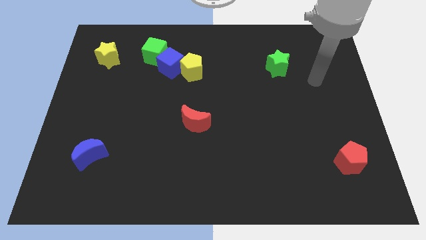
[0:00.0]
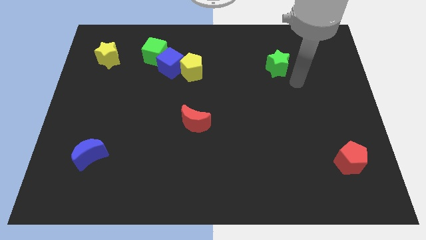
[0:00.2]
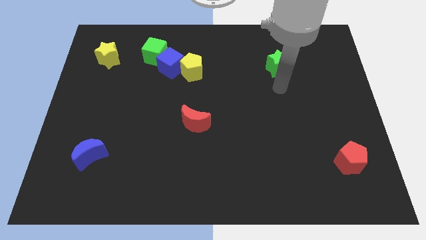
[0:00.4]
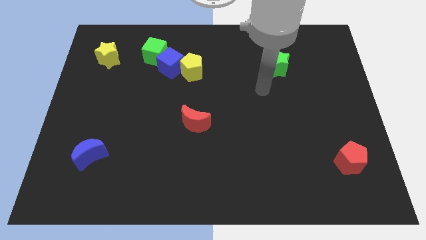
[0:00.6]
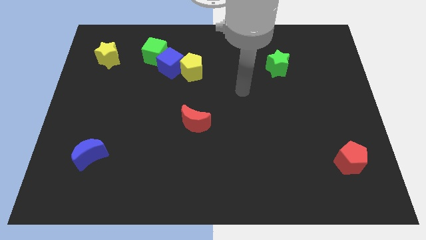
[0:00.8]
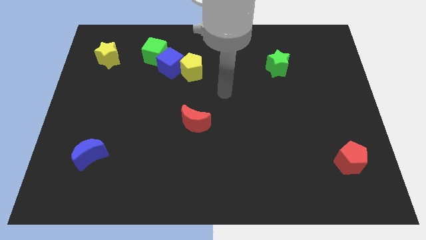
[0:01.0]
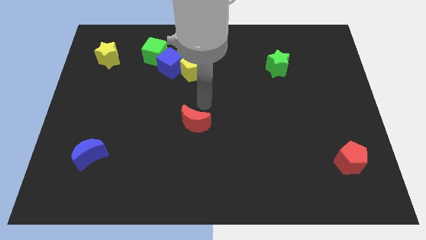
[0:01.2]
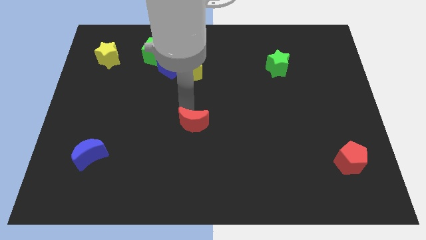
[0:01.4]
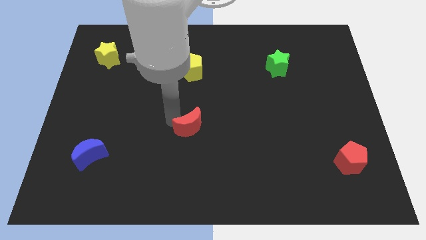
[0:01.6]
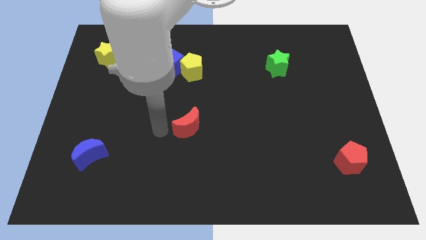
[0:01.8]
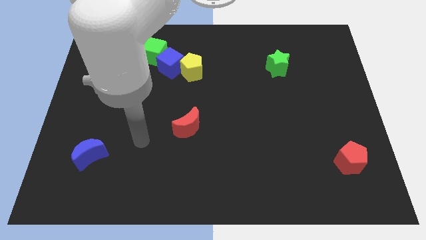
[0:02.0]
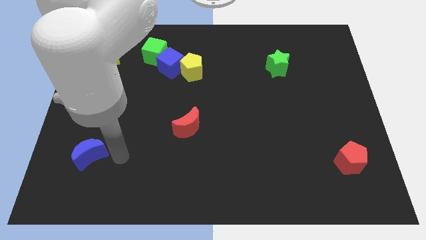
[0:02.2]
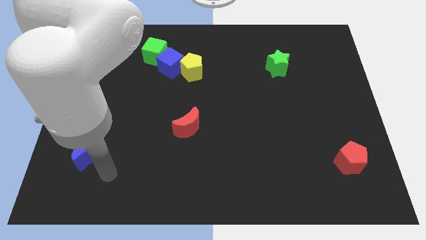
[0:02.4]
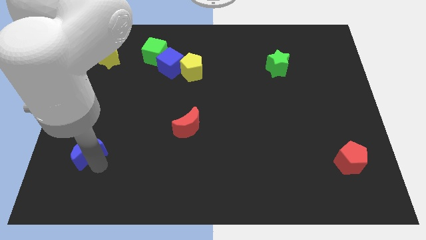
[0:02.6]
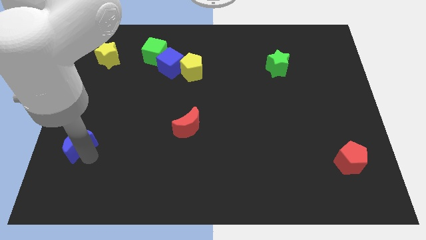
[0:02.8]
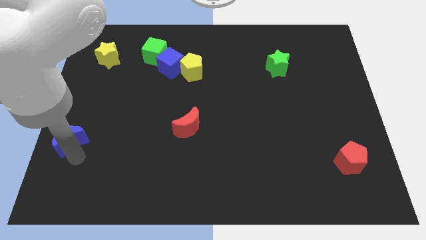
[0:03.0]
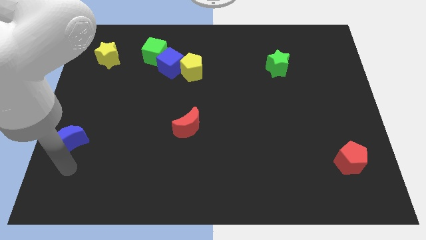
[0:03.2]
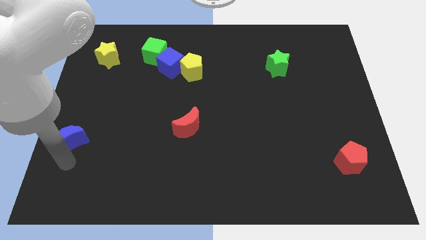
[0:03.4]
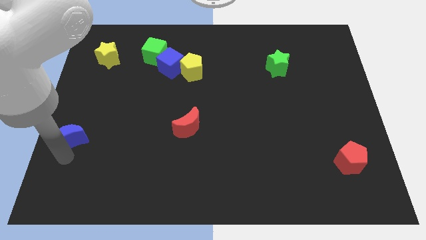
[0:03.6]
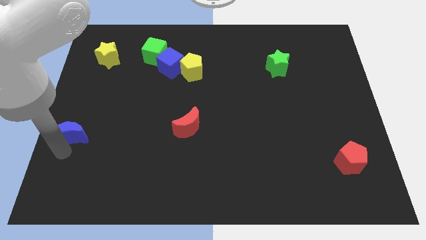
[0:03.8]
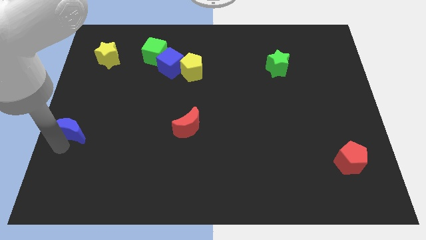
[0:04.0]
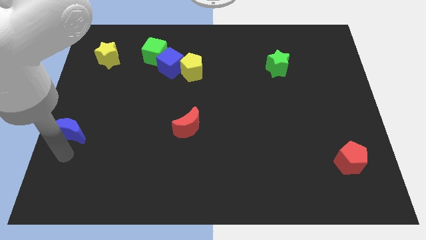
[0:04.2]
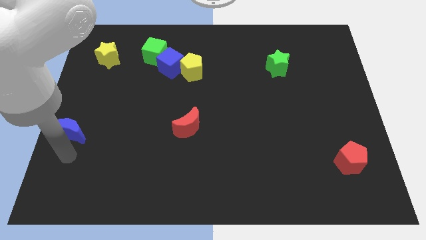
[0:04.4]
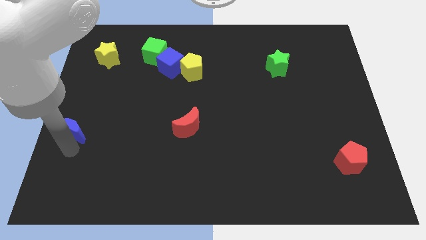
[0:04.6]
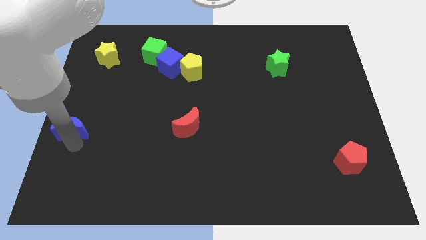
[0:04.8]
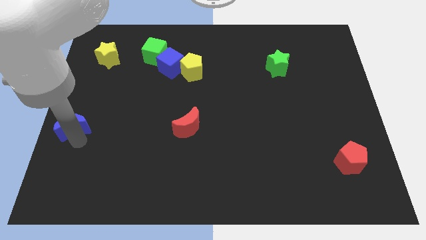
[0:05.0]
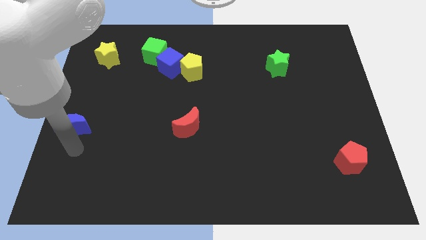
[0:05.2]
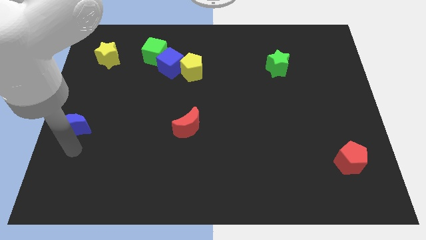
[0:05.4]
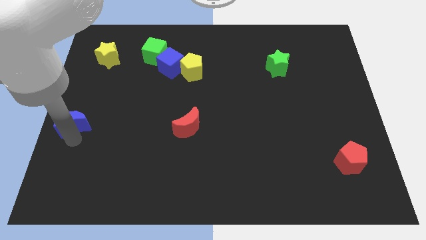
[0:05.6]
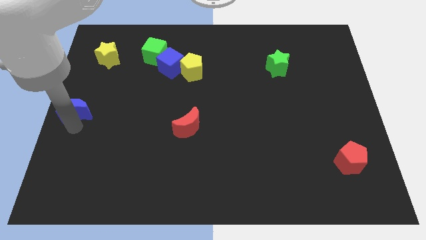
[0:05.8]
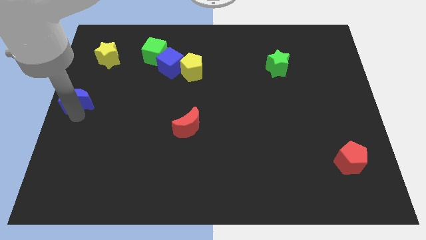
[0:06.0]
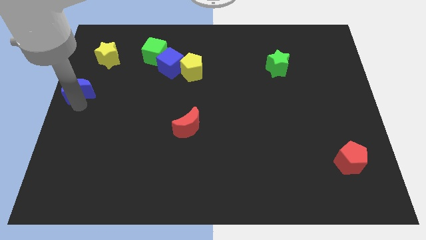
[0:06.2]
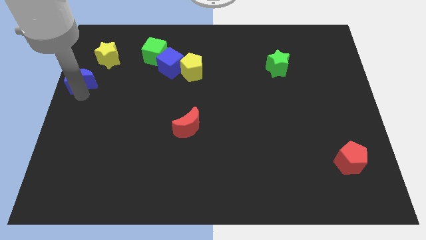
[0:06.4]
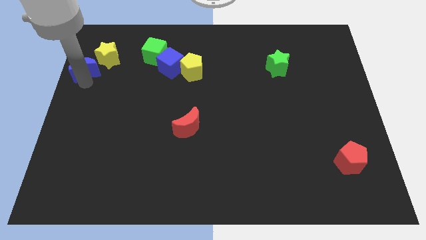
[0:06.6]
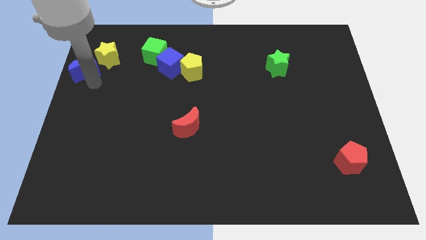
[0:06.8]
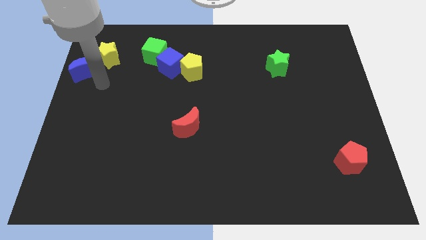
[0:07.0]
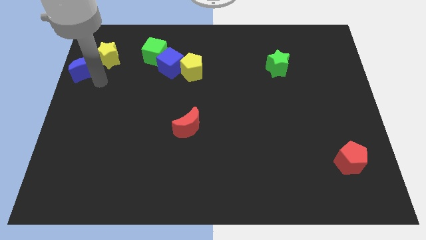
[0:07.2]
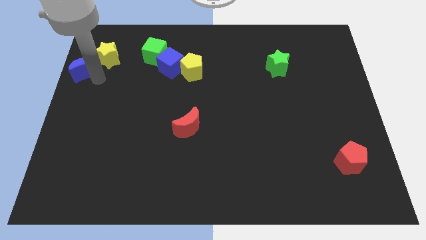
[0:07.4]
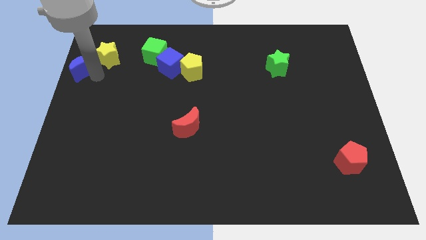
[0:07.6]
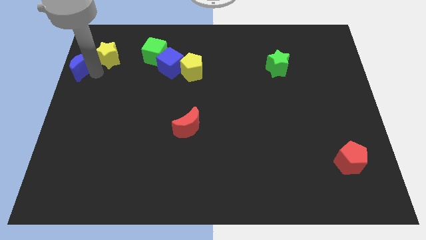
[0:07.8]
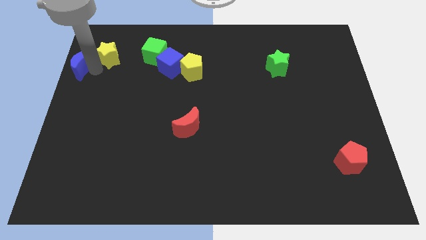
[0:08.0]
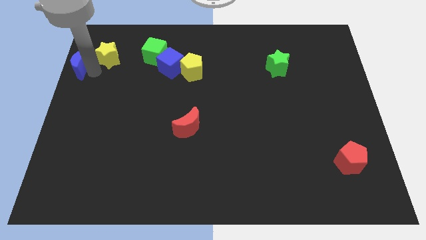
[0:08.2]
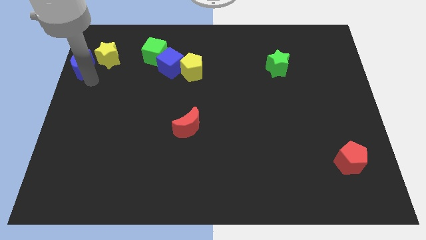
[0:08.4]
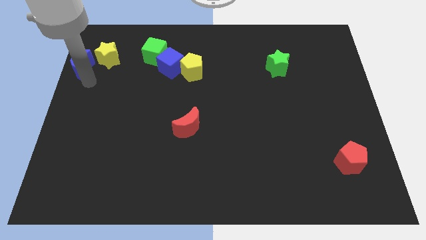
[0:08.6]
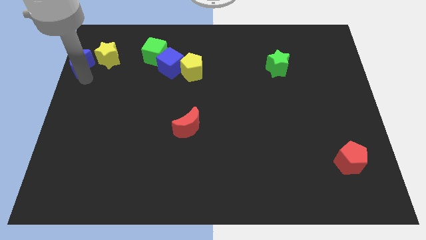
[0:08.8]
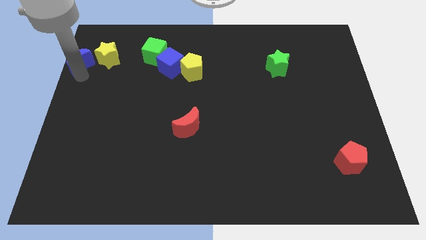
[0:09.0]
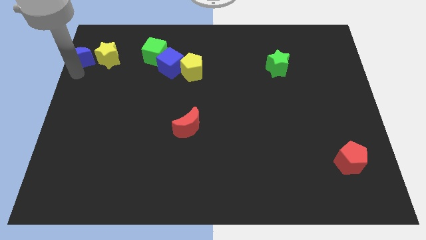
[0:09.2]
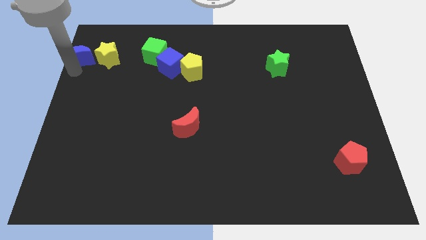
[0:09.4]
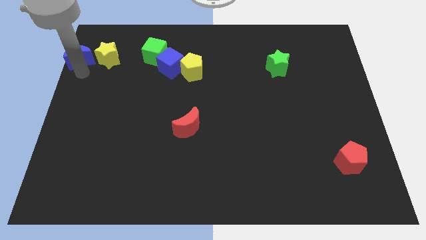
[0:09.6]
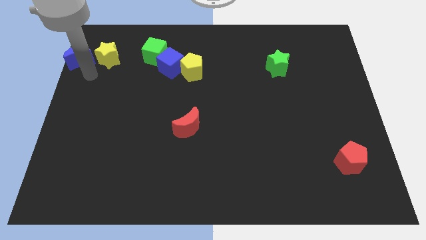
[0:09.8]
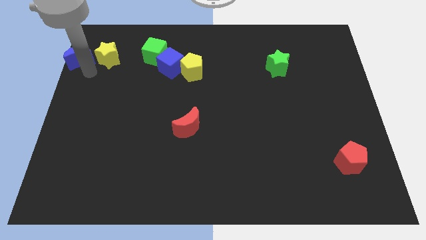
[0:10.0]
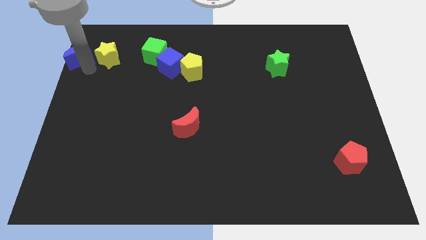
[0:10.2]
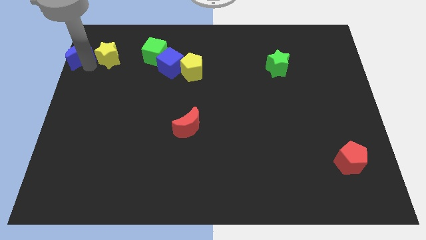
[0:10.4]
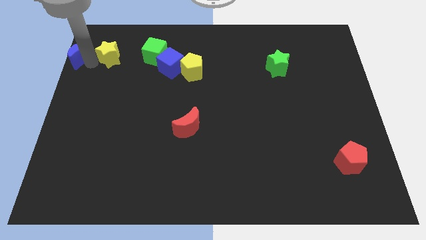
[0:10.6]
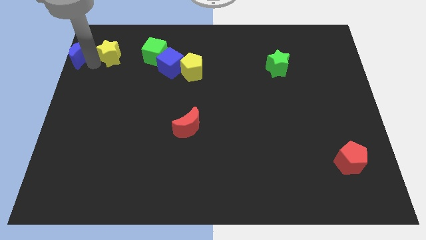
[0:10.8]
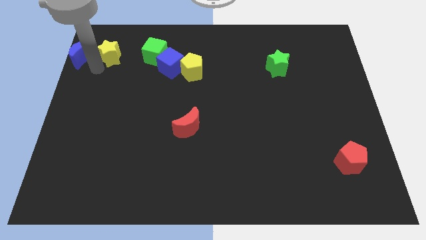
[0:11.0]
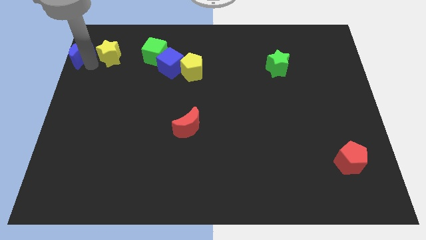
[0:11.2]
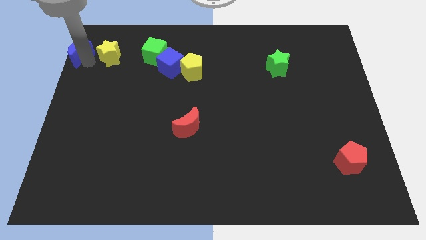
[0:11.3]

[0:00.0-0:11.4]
move the blue moon to the upper left corner
